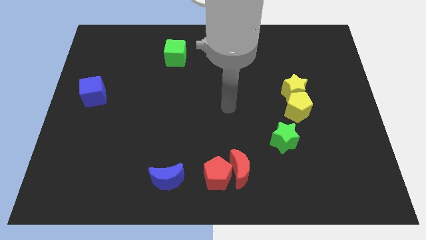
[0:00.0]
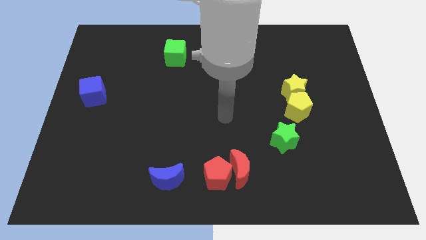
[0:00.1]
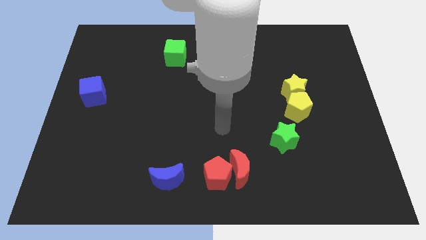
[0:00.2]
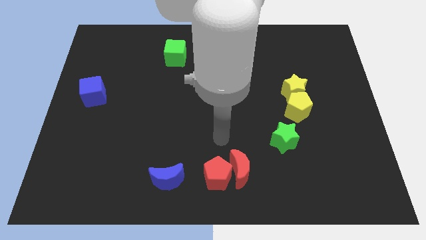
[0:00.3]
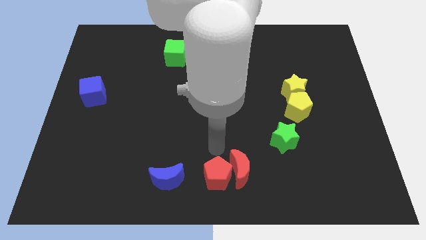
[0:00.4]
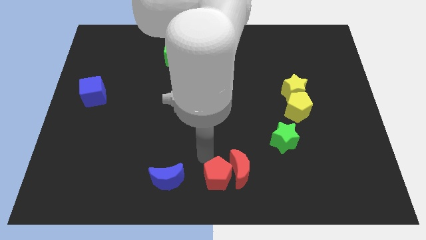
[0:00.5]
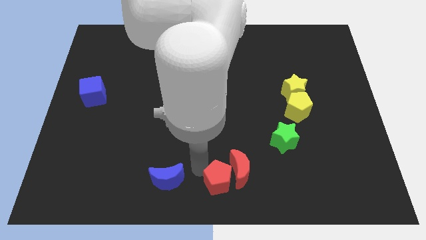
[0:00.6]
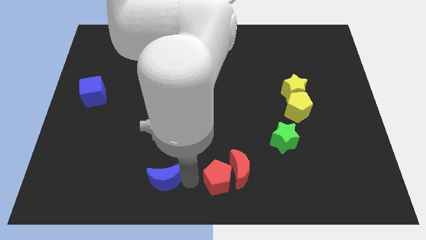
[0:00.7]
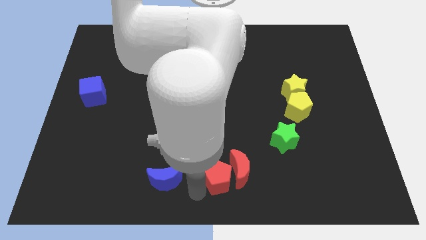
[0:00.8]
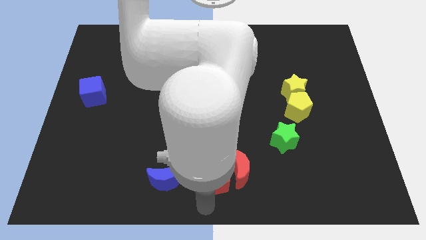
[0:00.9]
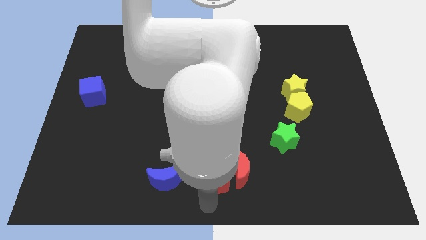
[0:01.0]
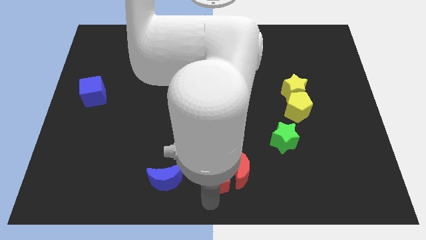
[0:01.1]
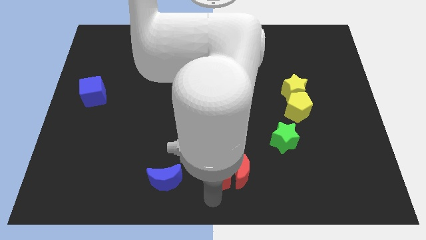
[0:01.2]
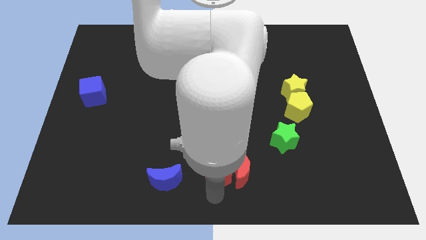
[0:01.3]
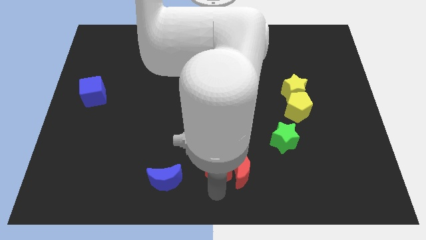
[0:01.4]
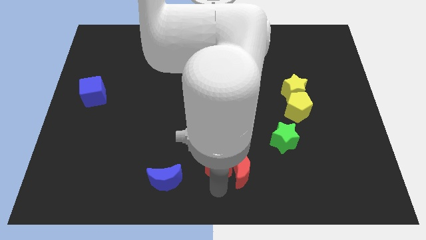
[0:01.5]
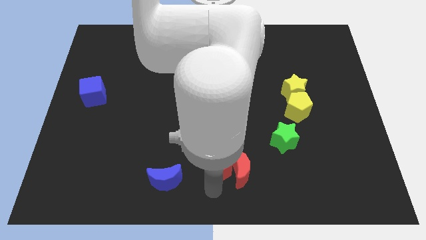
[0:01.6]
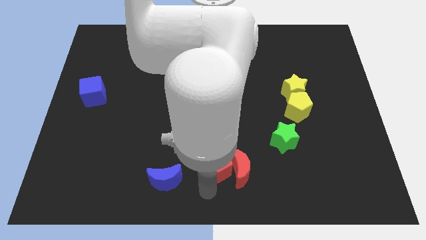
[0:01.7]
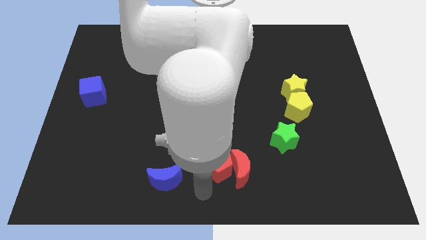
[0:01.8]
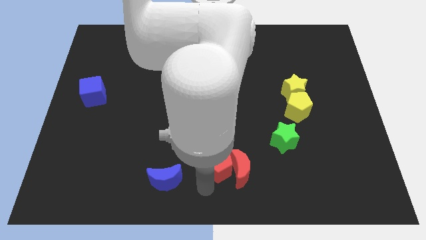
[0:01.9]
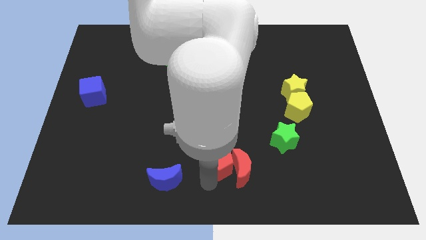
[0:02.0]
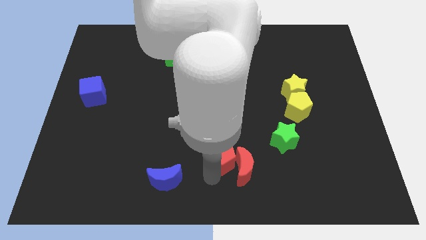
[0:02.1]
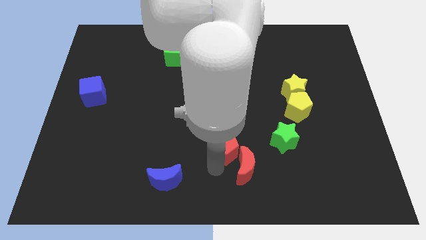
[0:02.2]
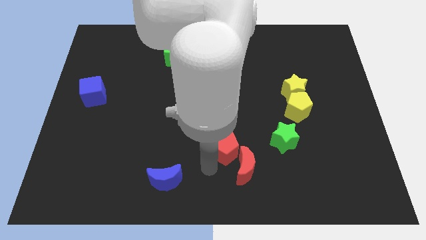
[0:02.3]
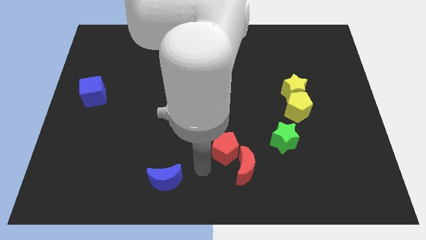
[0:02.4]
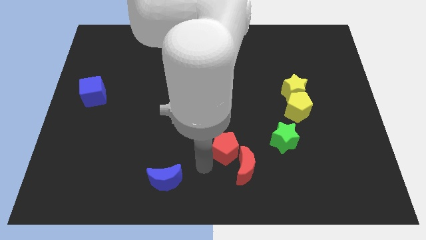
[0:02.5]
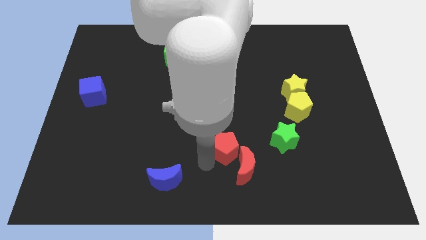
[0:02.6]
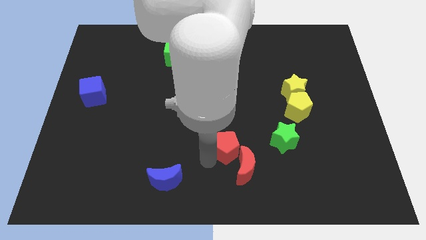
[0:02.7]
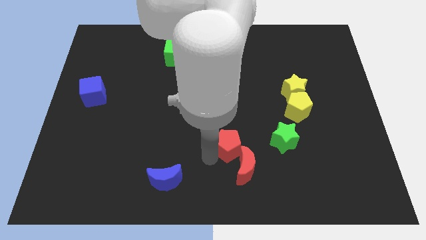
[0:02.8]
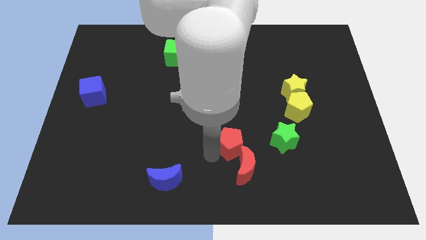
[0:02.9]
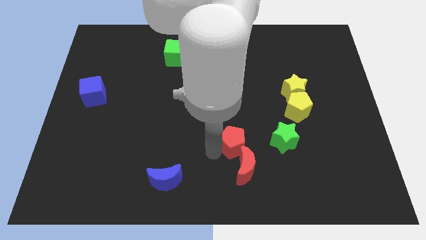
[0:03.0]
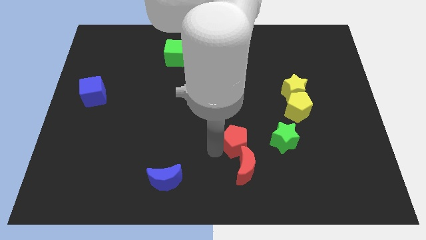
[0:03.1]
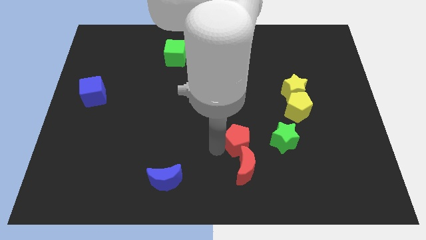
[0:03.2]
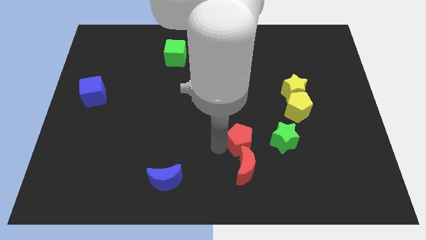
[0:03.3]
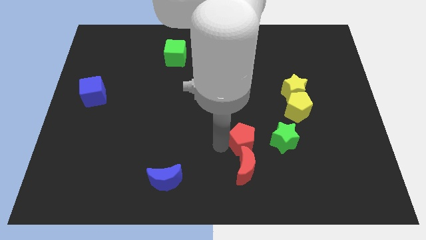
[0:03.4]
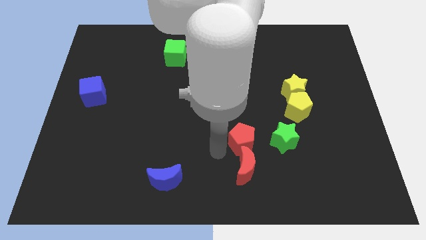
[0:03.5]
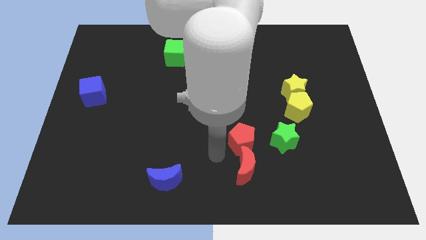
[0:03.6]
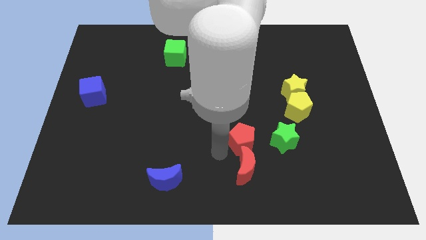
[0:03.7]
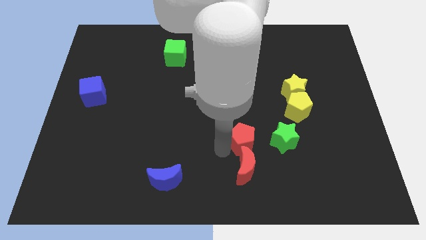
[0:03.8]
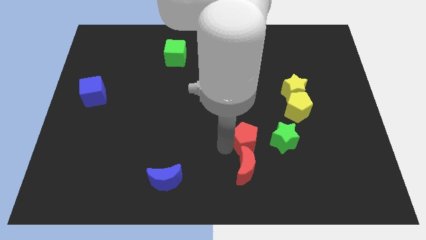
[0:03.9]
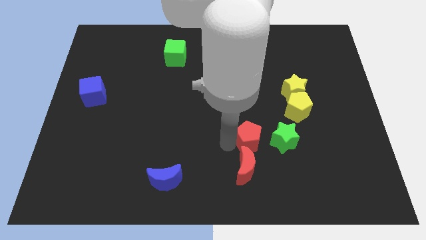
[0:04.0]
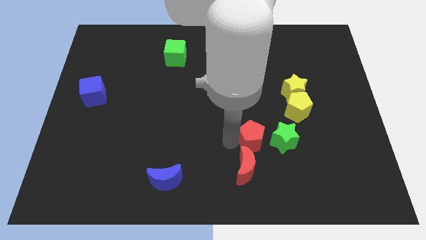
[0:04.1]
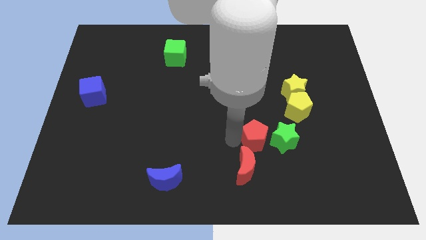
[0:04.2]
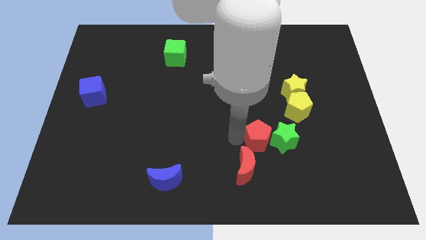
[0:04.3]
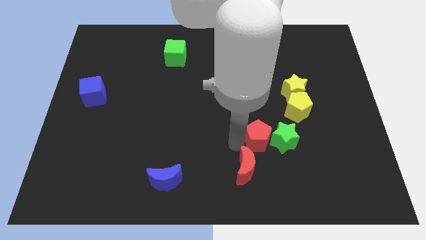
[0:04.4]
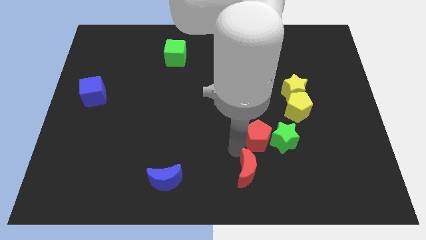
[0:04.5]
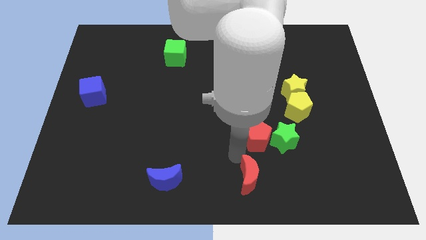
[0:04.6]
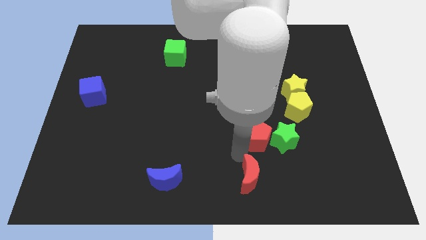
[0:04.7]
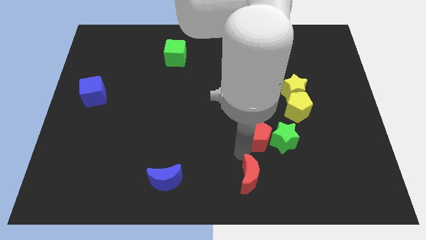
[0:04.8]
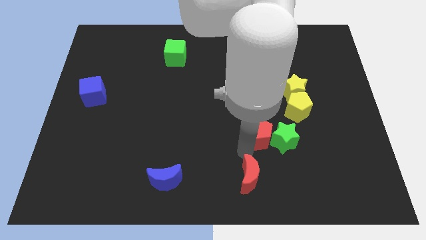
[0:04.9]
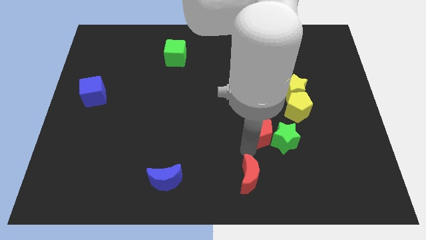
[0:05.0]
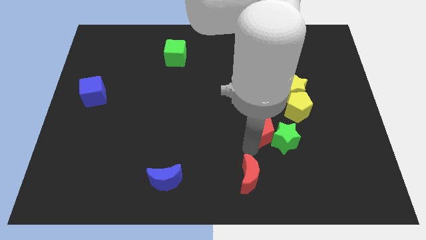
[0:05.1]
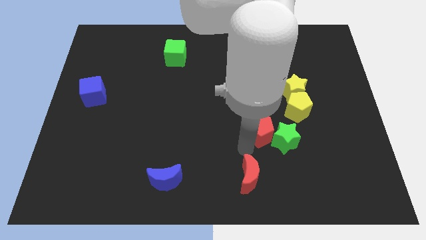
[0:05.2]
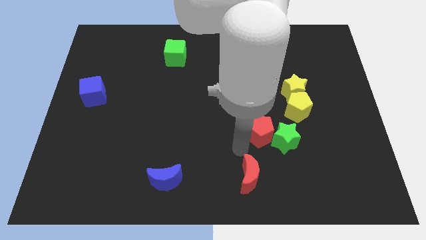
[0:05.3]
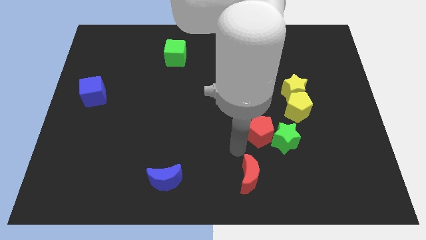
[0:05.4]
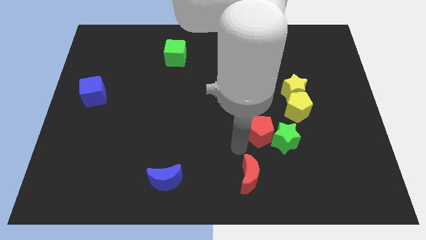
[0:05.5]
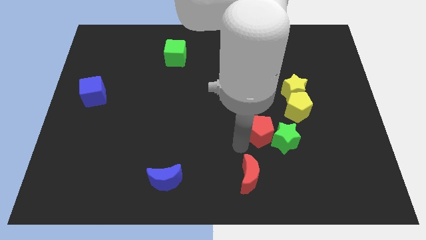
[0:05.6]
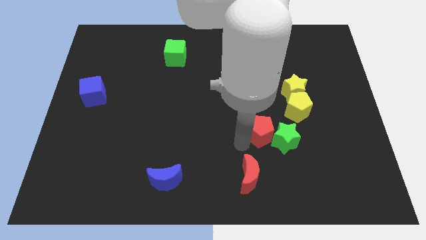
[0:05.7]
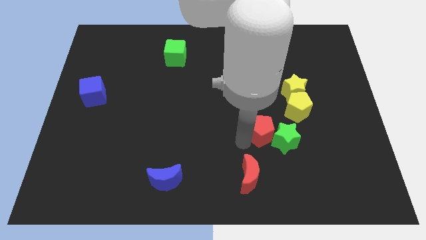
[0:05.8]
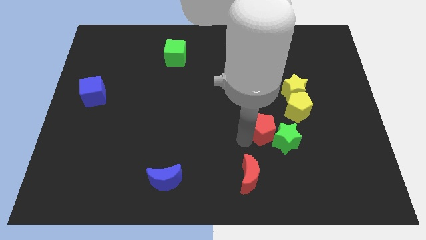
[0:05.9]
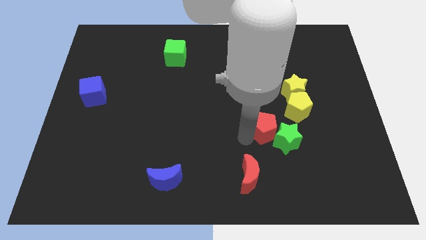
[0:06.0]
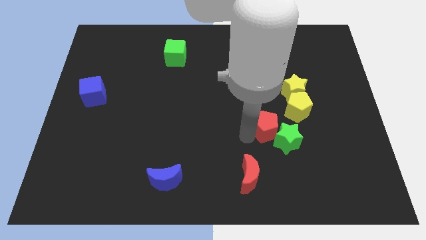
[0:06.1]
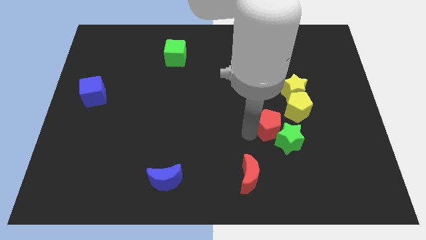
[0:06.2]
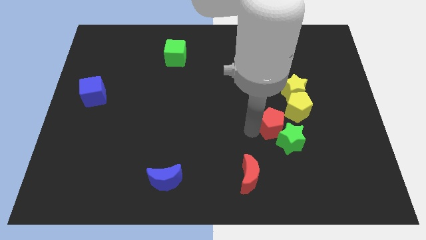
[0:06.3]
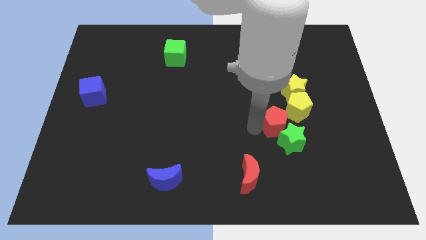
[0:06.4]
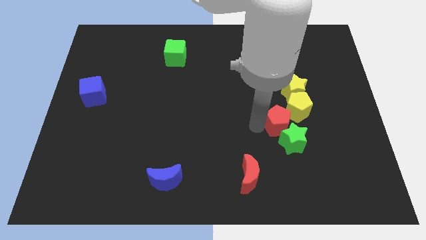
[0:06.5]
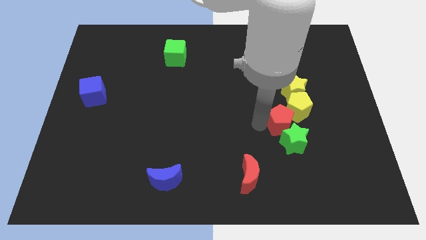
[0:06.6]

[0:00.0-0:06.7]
move the red pentagon close to the yellow pentagon
